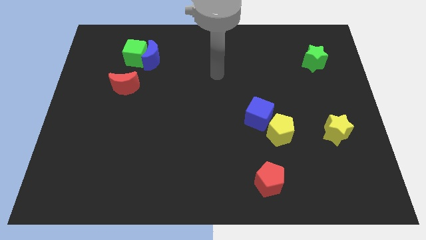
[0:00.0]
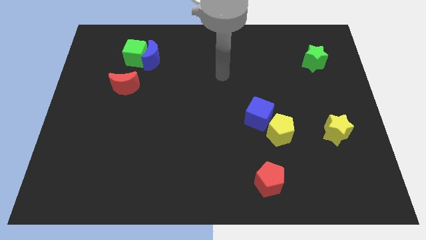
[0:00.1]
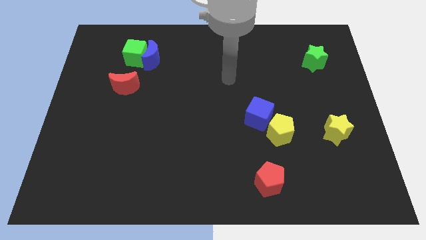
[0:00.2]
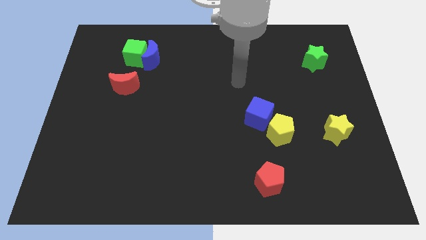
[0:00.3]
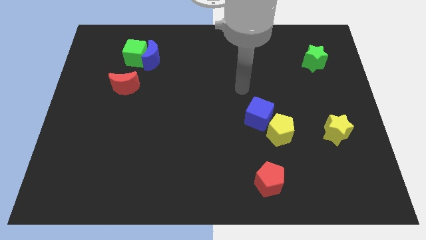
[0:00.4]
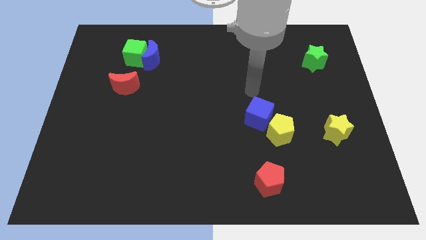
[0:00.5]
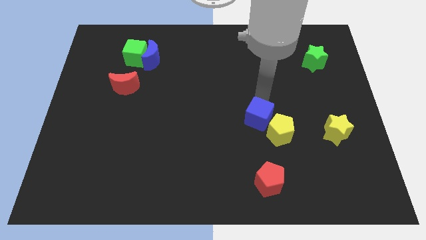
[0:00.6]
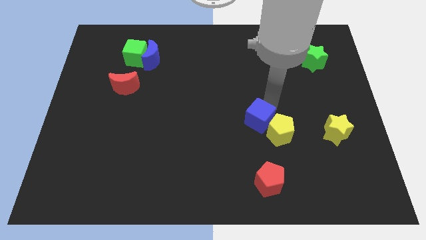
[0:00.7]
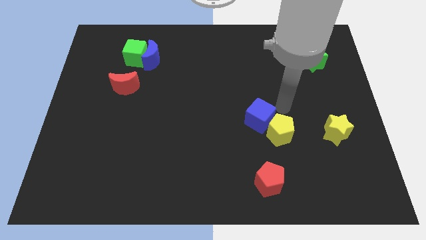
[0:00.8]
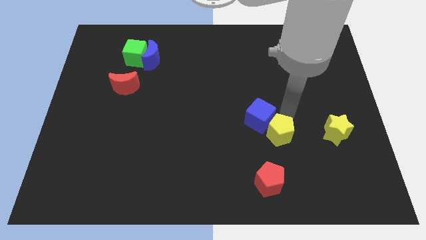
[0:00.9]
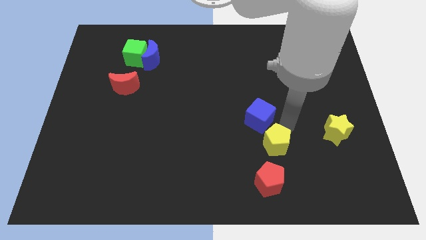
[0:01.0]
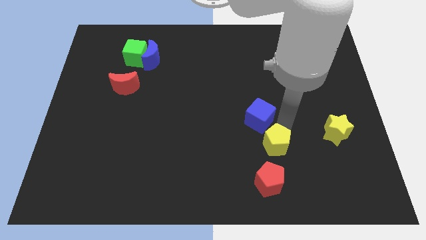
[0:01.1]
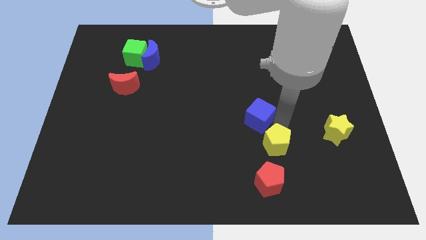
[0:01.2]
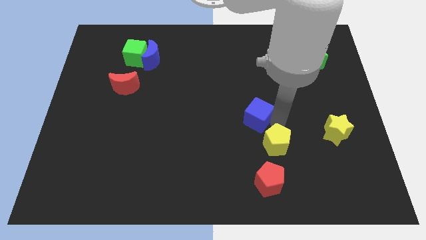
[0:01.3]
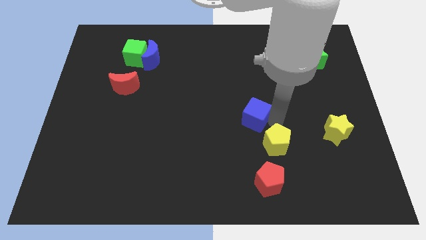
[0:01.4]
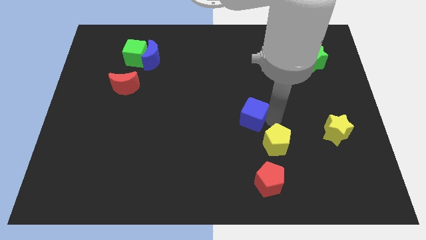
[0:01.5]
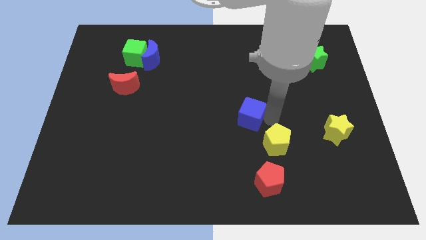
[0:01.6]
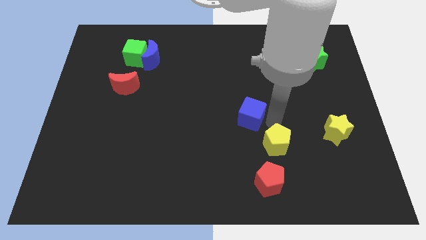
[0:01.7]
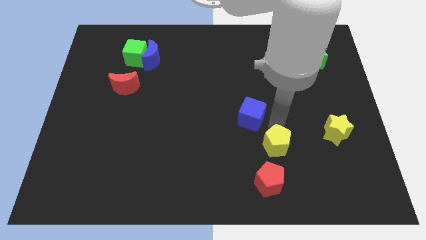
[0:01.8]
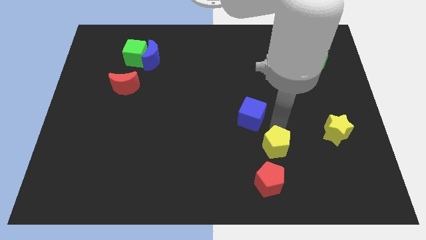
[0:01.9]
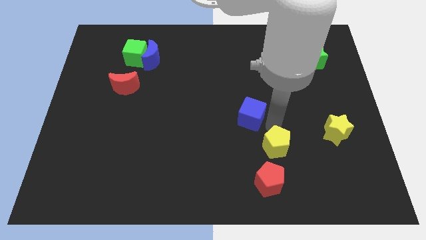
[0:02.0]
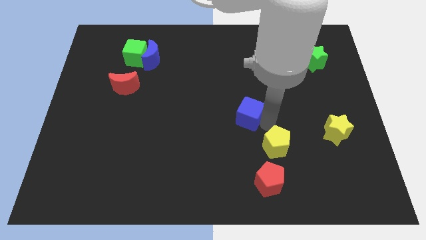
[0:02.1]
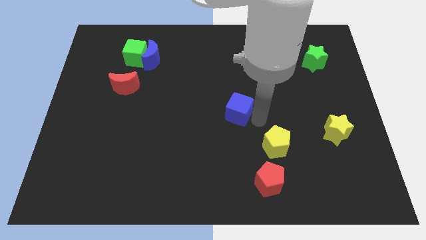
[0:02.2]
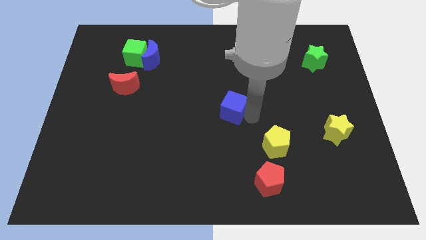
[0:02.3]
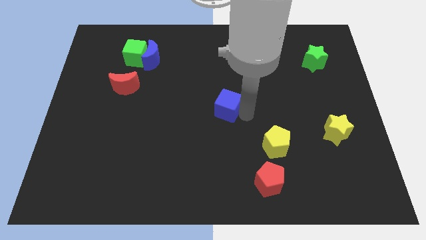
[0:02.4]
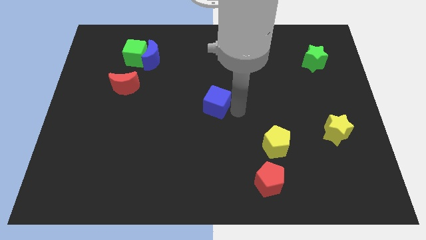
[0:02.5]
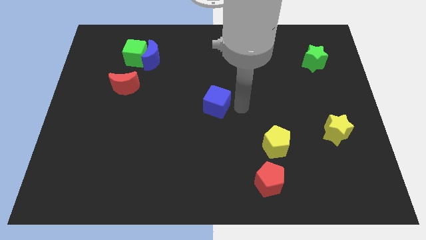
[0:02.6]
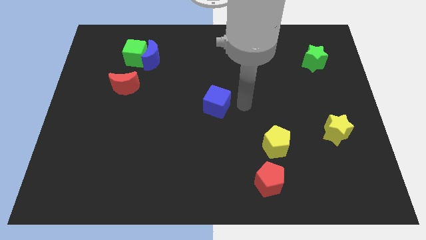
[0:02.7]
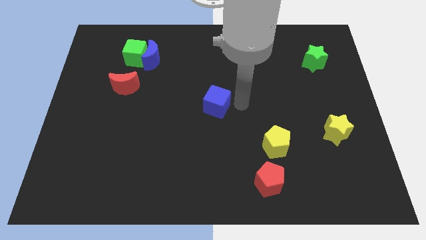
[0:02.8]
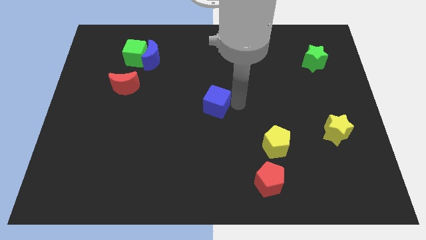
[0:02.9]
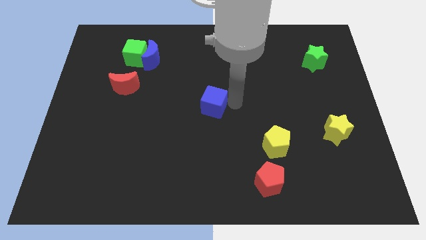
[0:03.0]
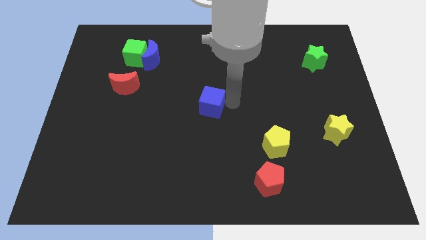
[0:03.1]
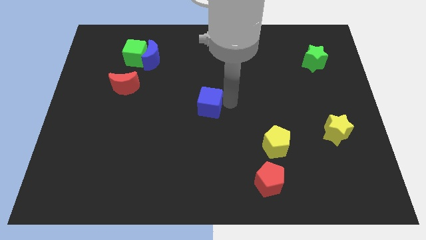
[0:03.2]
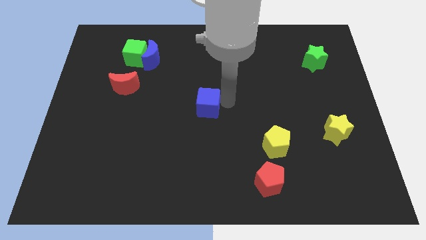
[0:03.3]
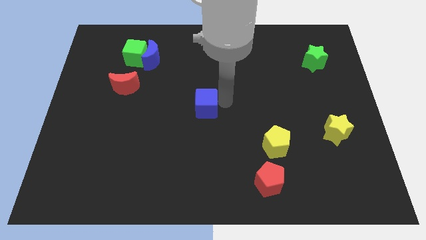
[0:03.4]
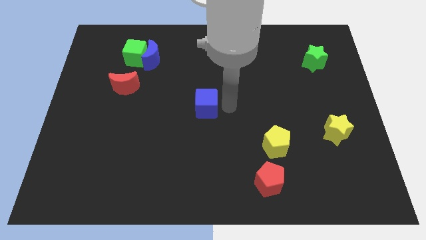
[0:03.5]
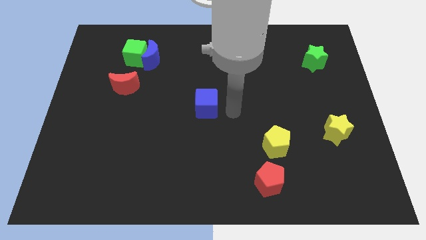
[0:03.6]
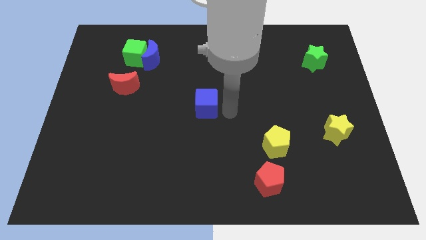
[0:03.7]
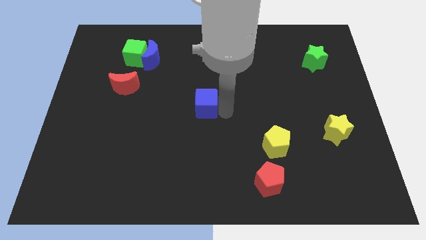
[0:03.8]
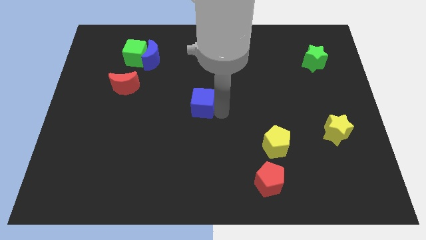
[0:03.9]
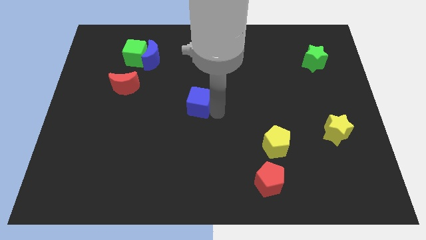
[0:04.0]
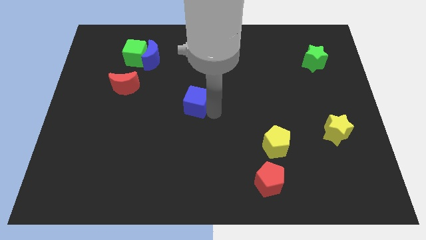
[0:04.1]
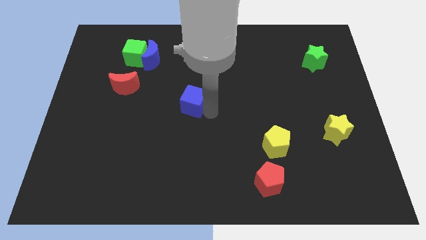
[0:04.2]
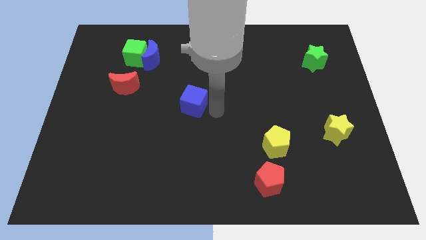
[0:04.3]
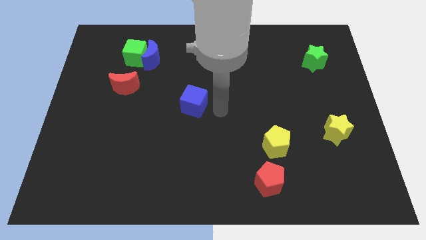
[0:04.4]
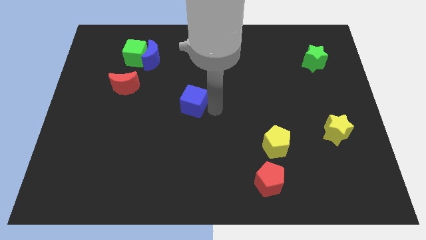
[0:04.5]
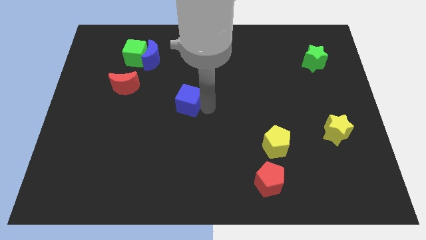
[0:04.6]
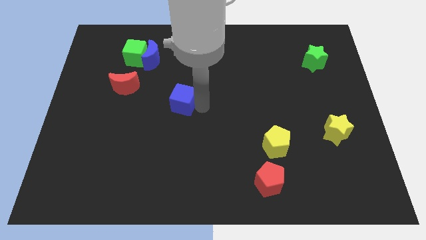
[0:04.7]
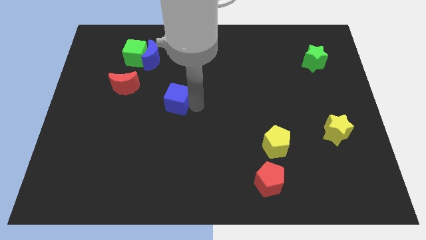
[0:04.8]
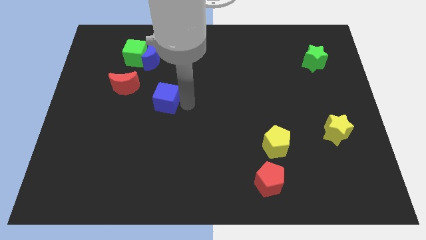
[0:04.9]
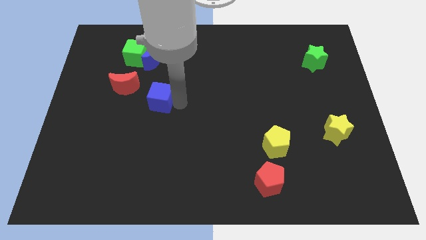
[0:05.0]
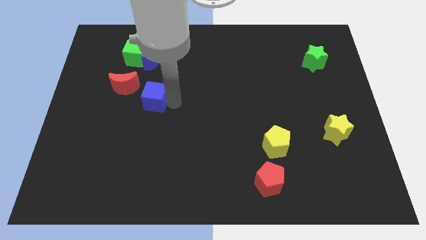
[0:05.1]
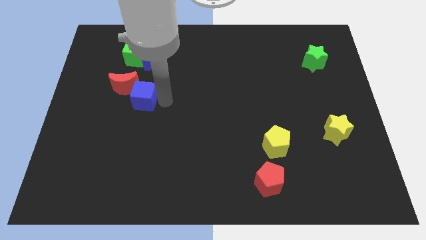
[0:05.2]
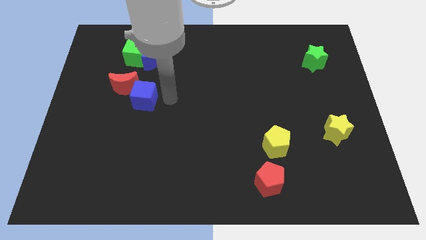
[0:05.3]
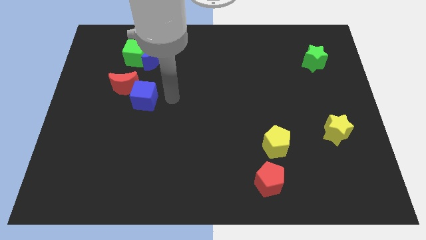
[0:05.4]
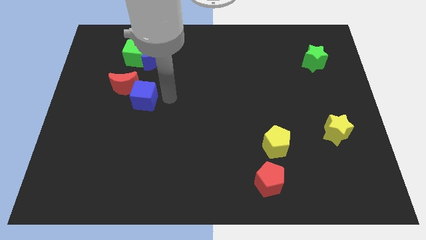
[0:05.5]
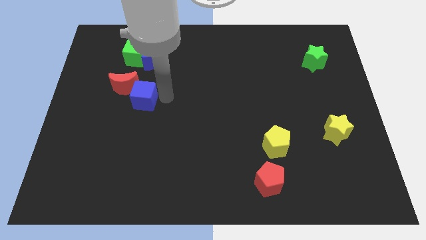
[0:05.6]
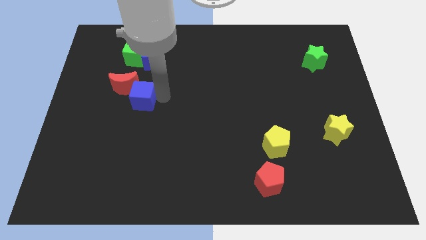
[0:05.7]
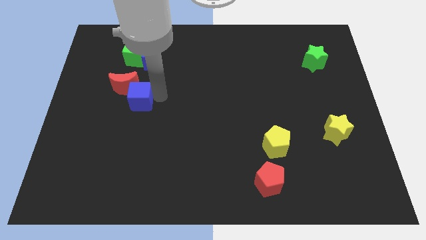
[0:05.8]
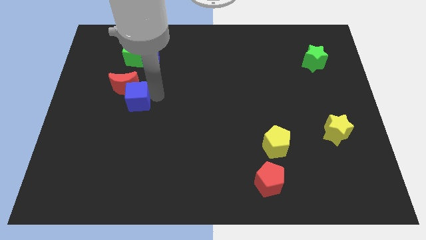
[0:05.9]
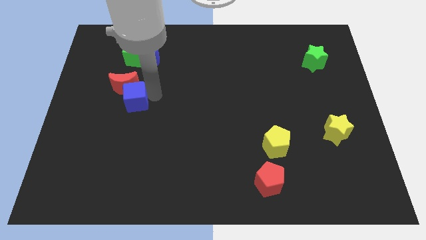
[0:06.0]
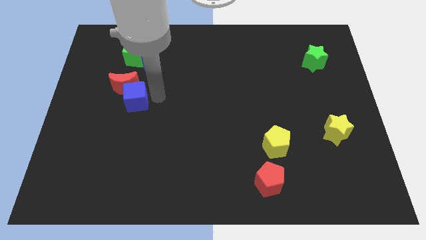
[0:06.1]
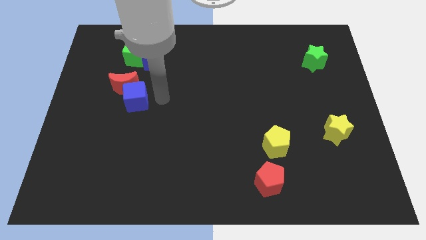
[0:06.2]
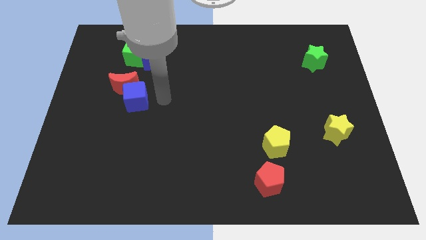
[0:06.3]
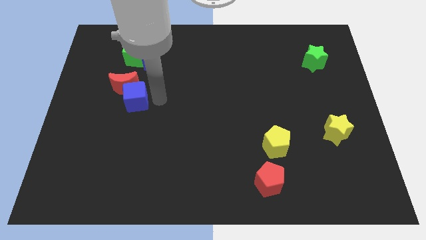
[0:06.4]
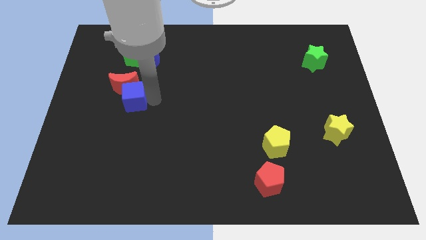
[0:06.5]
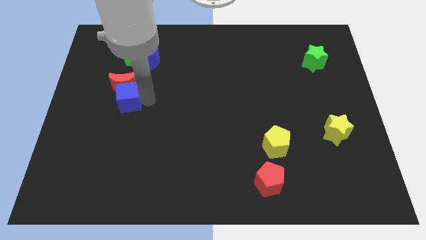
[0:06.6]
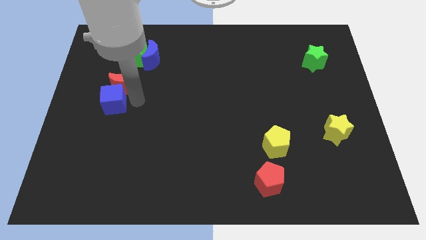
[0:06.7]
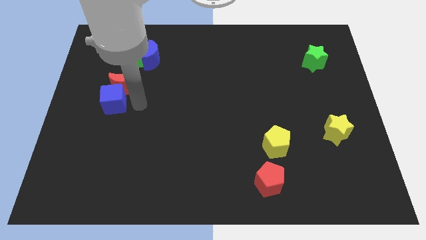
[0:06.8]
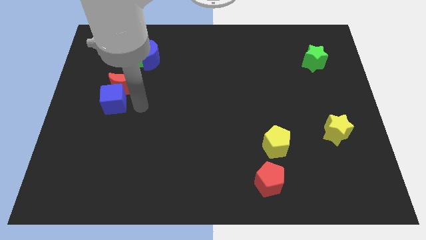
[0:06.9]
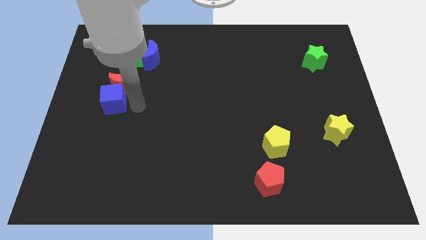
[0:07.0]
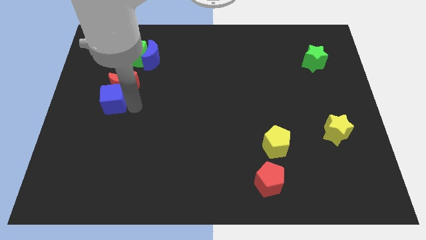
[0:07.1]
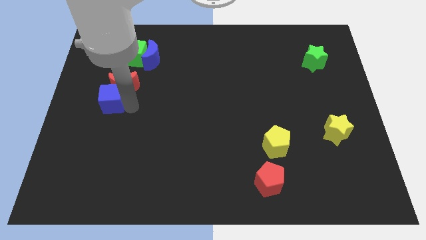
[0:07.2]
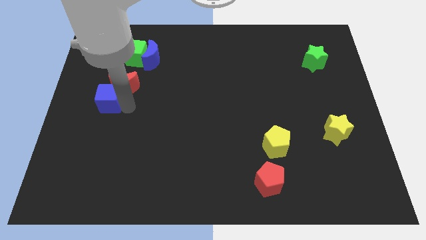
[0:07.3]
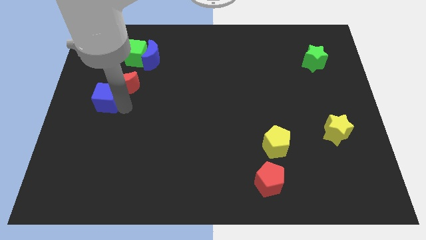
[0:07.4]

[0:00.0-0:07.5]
push the blue cube to the left side
